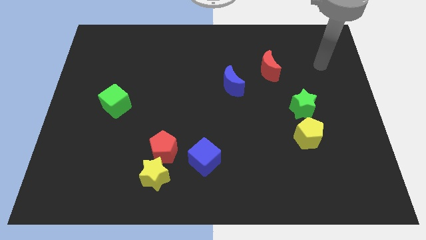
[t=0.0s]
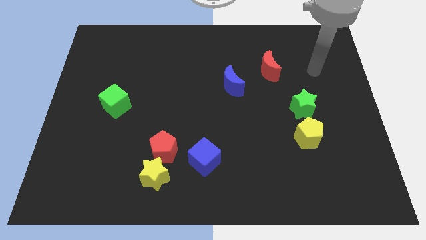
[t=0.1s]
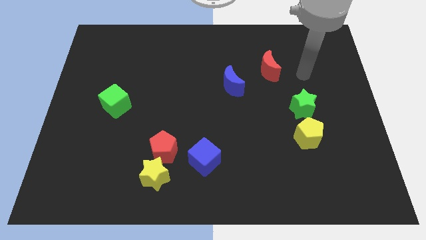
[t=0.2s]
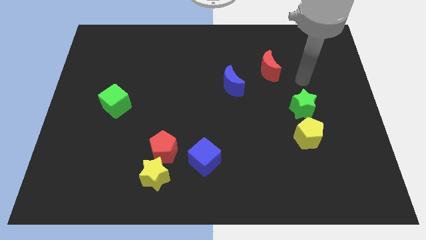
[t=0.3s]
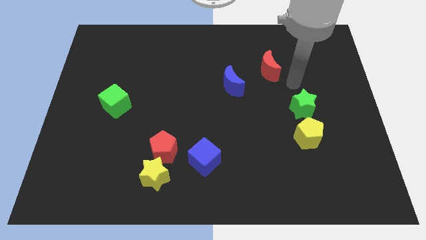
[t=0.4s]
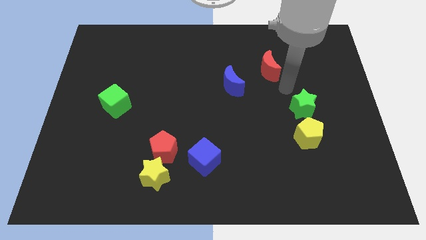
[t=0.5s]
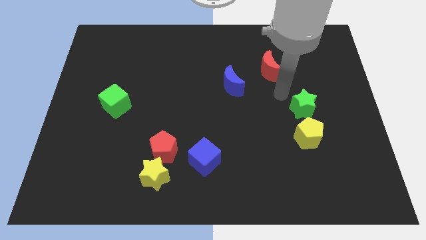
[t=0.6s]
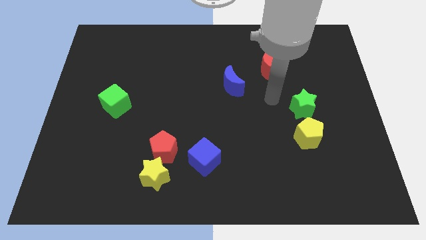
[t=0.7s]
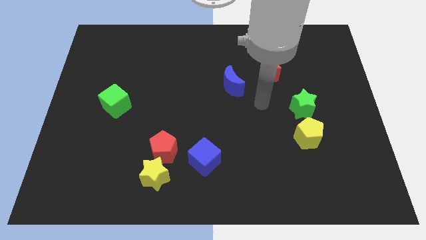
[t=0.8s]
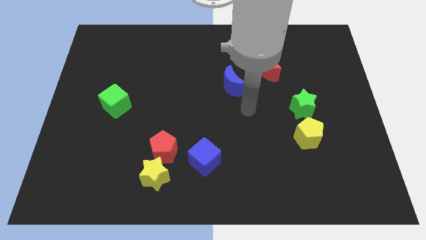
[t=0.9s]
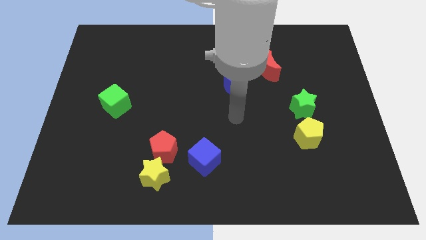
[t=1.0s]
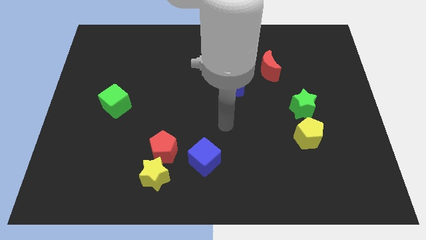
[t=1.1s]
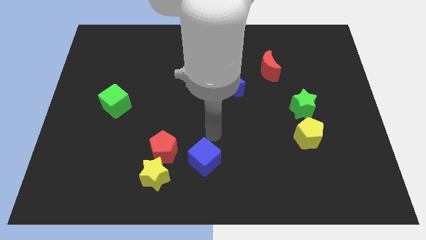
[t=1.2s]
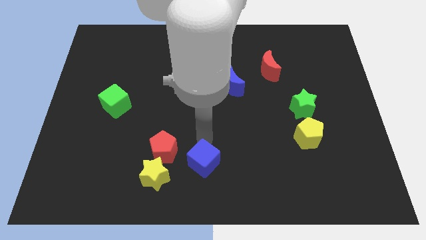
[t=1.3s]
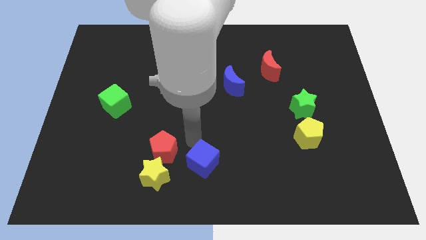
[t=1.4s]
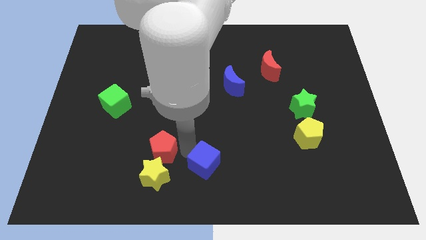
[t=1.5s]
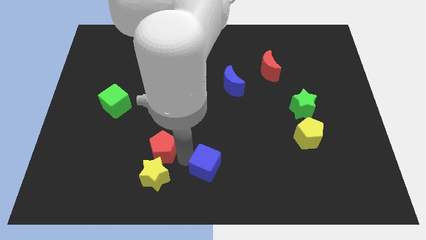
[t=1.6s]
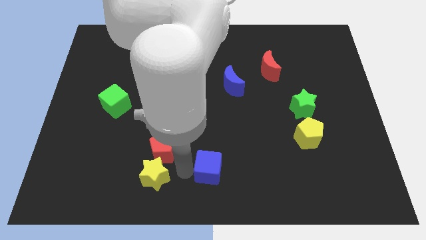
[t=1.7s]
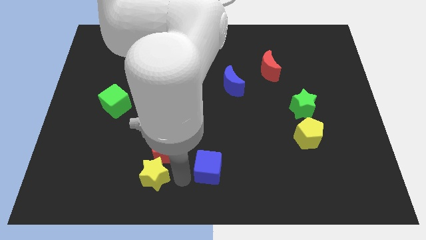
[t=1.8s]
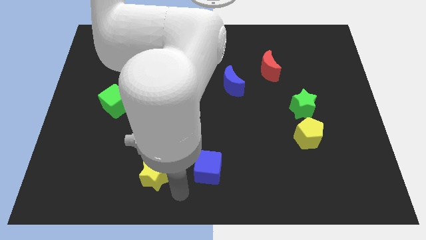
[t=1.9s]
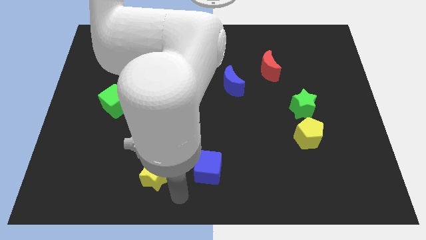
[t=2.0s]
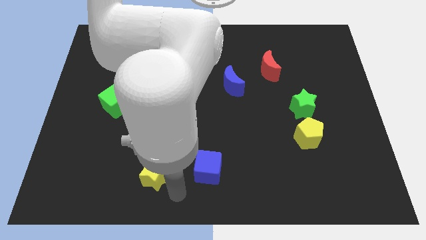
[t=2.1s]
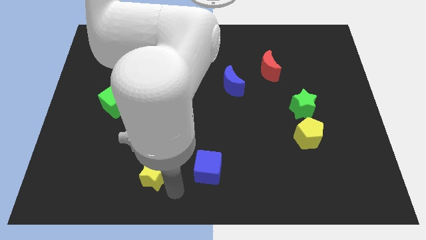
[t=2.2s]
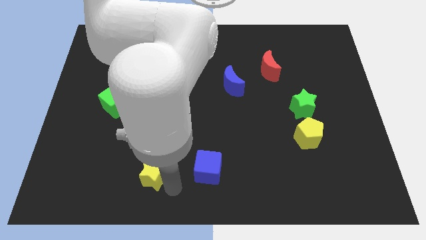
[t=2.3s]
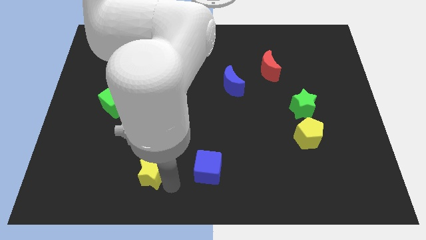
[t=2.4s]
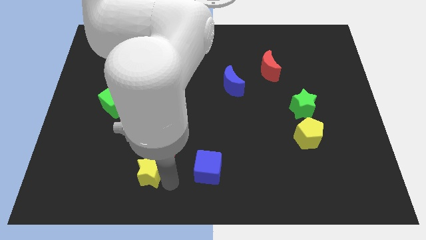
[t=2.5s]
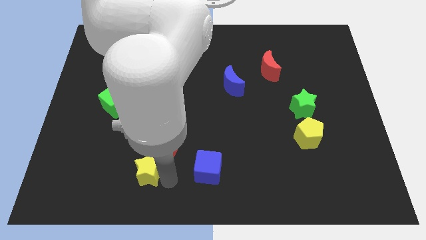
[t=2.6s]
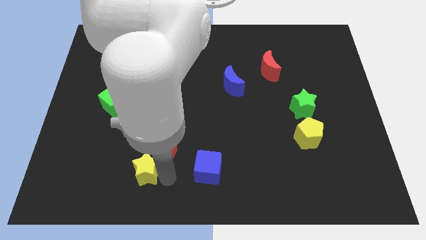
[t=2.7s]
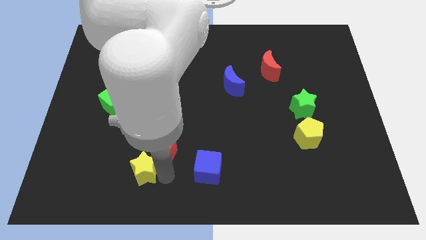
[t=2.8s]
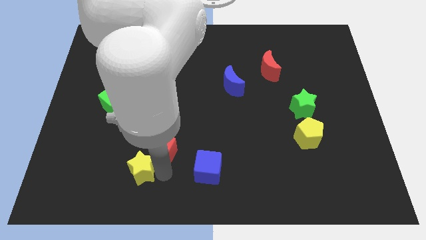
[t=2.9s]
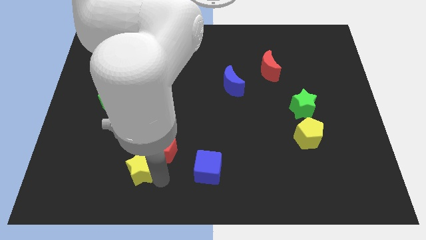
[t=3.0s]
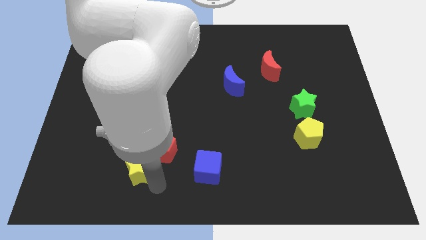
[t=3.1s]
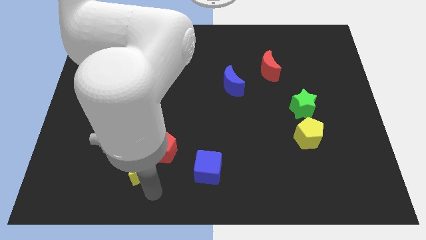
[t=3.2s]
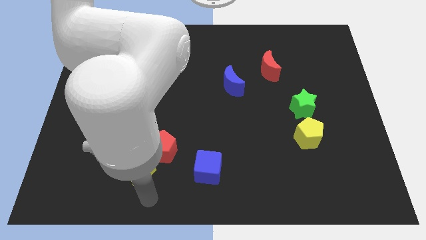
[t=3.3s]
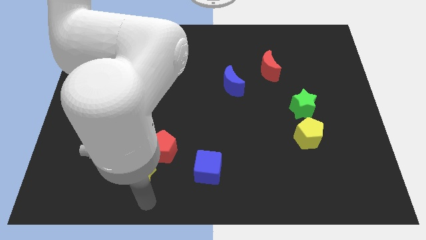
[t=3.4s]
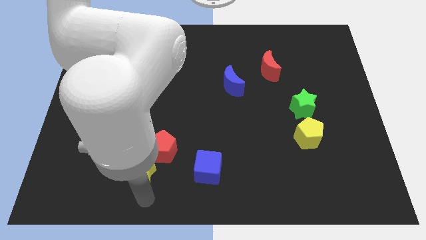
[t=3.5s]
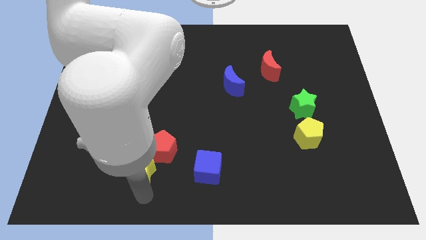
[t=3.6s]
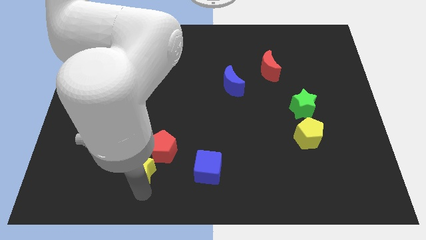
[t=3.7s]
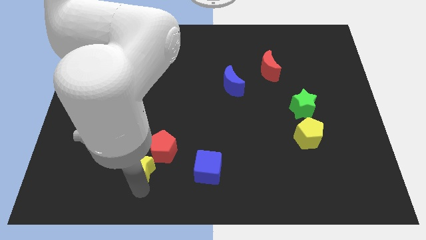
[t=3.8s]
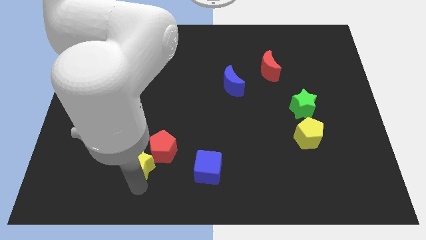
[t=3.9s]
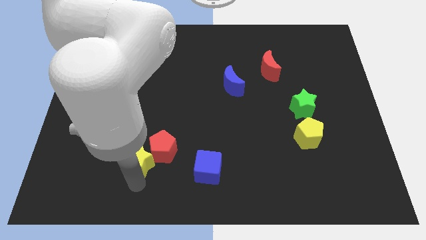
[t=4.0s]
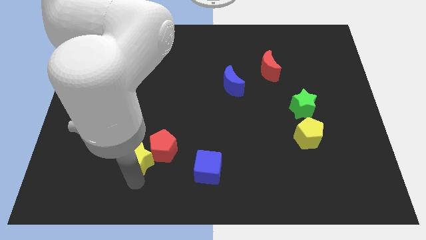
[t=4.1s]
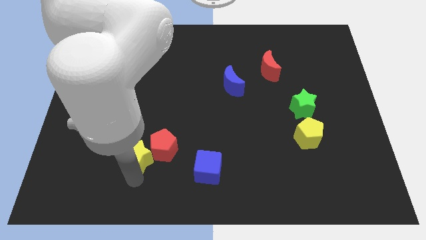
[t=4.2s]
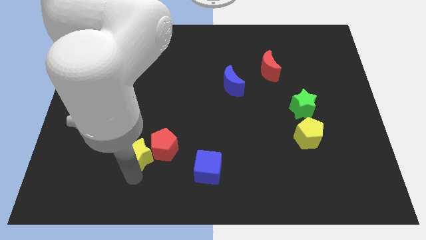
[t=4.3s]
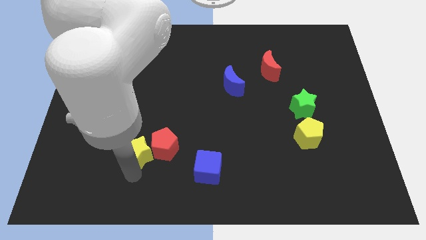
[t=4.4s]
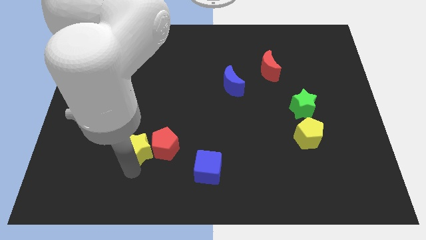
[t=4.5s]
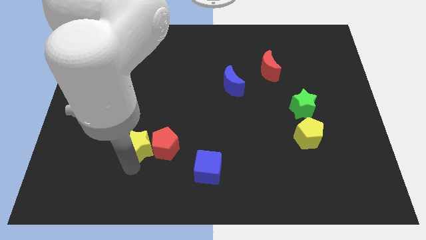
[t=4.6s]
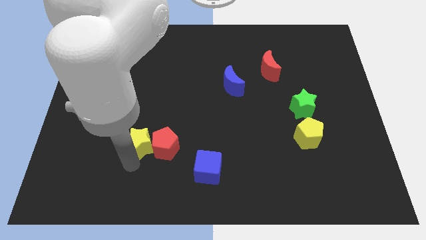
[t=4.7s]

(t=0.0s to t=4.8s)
move the yellow star a little bit up

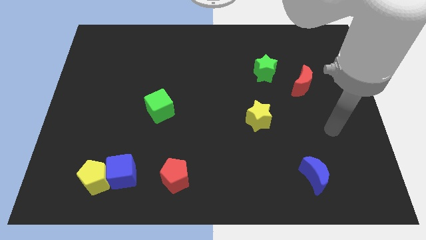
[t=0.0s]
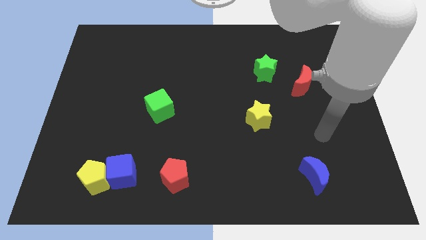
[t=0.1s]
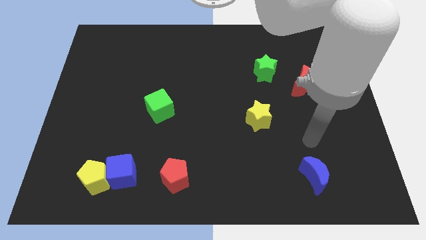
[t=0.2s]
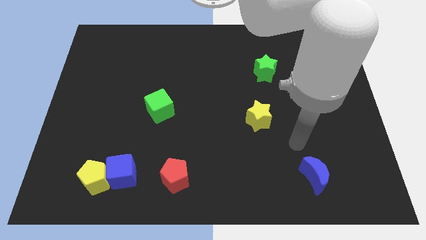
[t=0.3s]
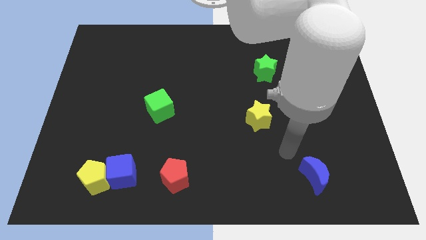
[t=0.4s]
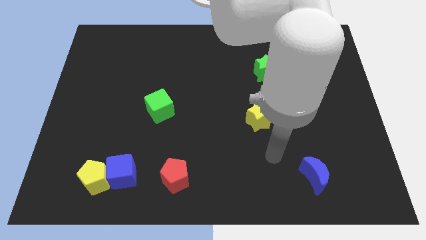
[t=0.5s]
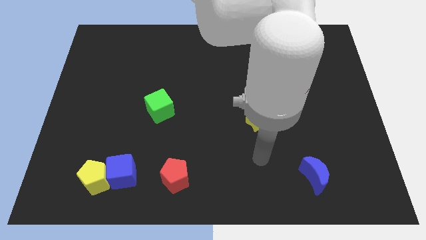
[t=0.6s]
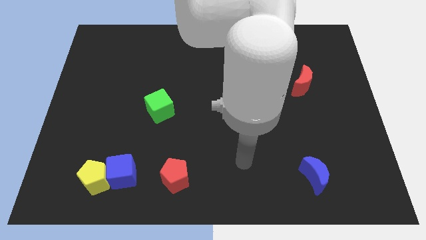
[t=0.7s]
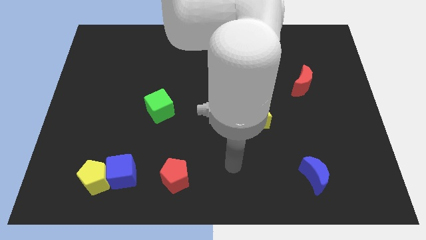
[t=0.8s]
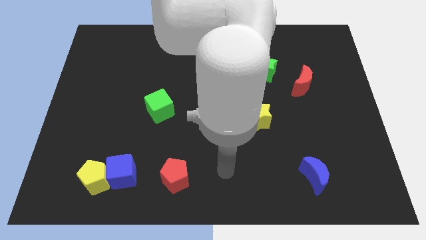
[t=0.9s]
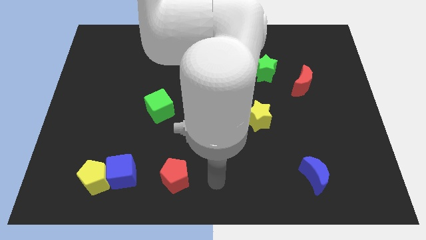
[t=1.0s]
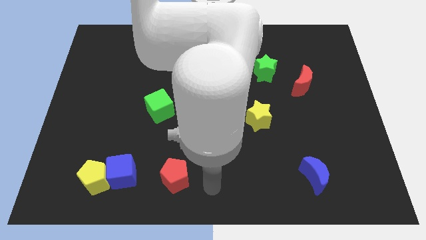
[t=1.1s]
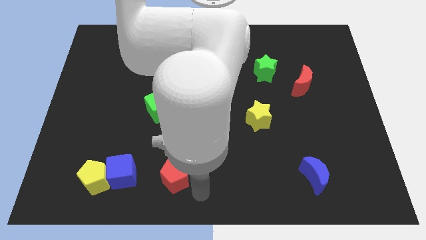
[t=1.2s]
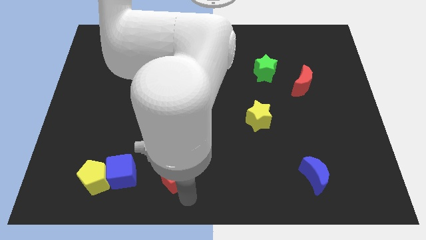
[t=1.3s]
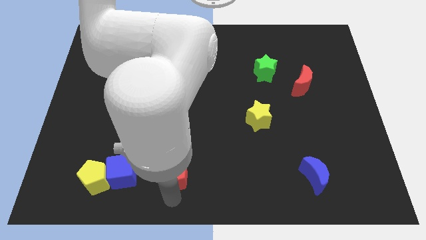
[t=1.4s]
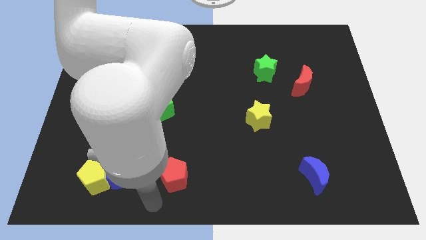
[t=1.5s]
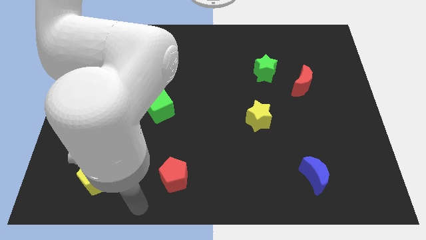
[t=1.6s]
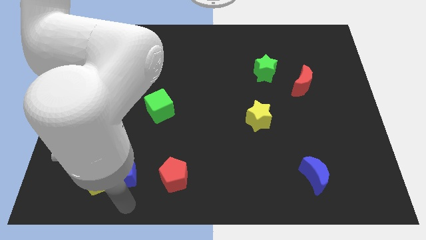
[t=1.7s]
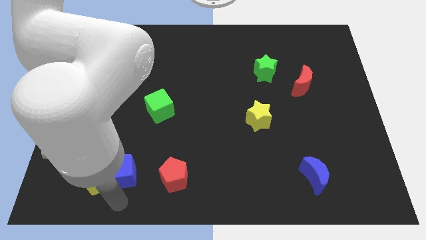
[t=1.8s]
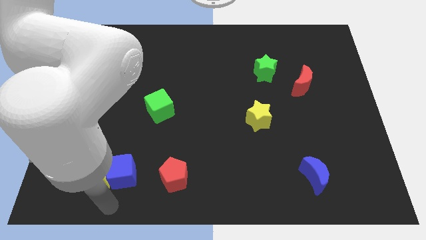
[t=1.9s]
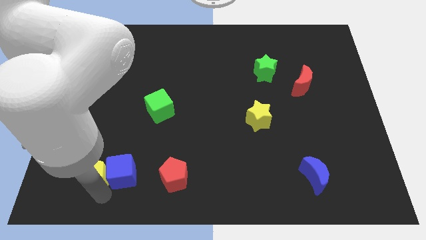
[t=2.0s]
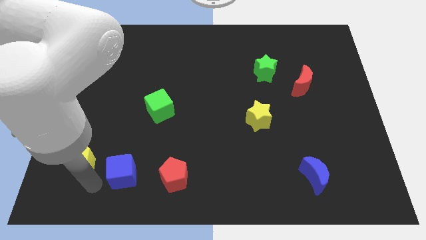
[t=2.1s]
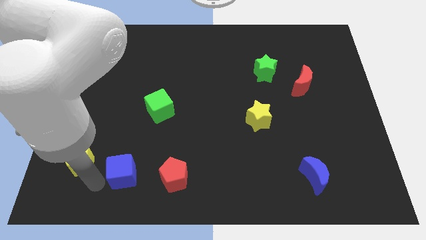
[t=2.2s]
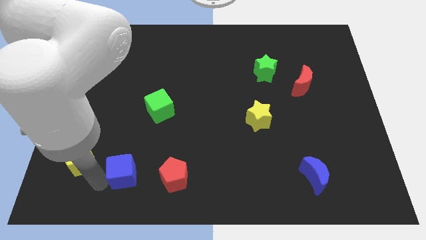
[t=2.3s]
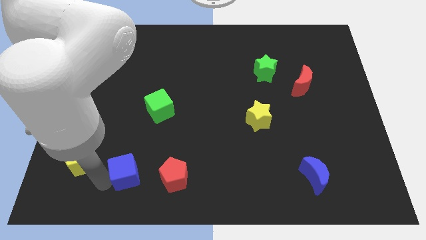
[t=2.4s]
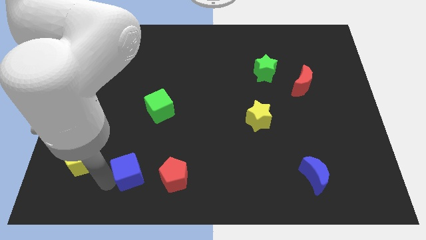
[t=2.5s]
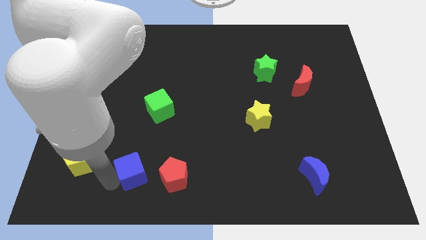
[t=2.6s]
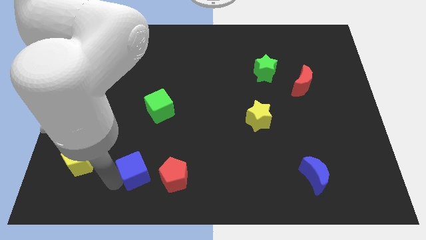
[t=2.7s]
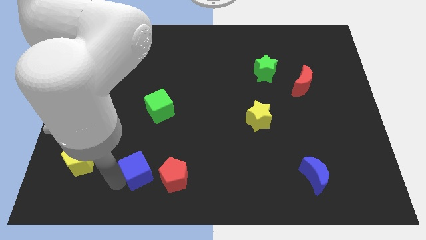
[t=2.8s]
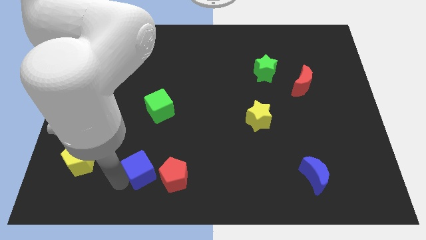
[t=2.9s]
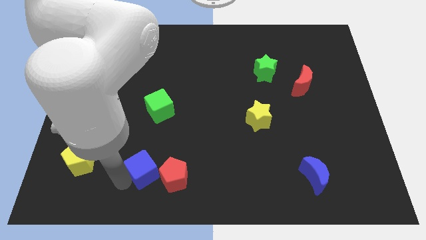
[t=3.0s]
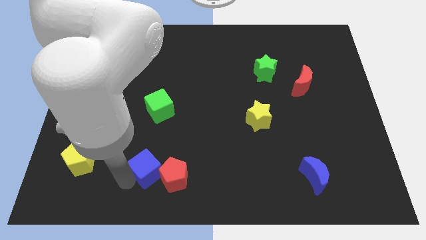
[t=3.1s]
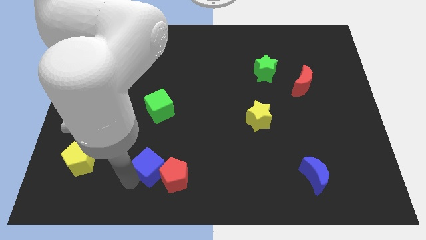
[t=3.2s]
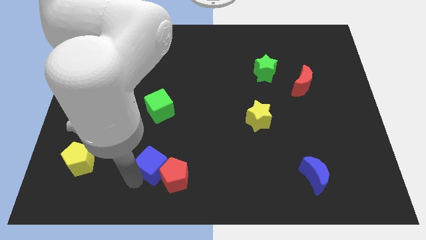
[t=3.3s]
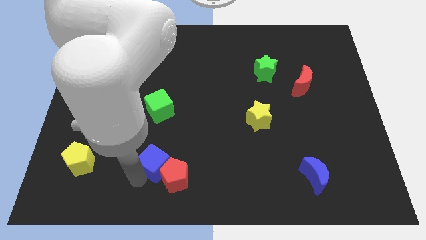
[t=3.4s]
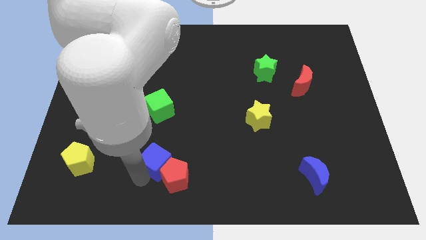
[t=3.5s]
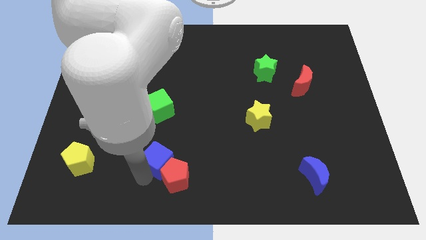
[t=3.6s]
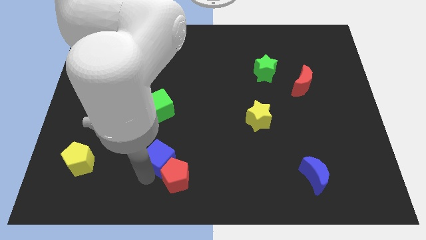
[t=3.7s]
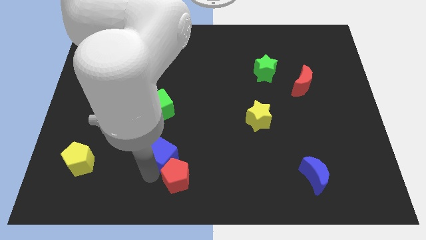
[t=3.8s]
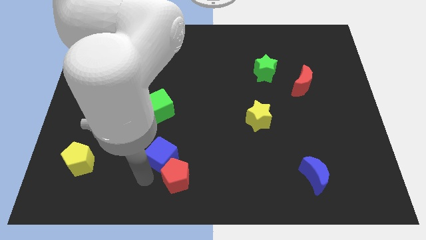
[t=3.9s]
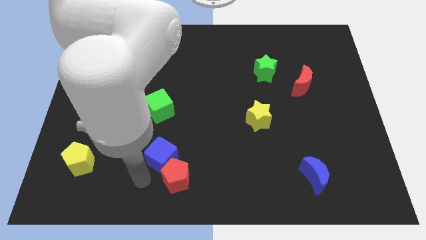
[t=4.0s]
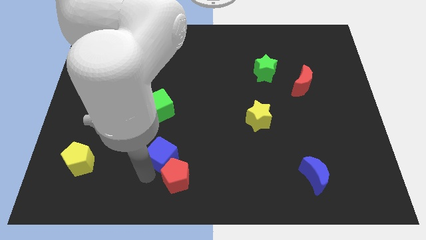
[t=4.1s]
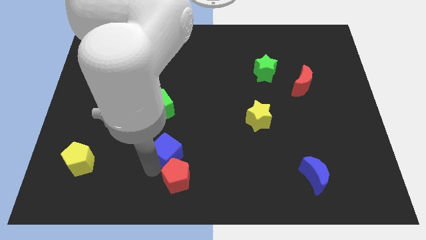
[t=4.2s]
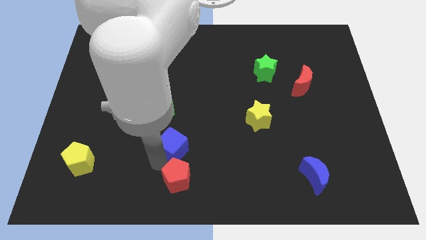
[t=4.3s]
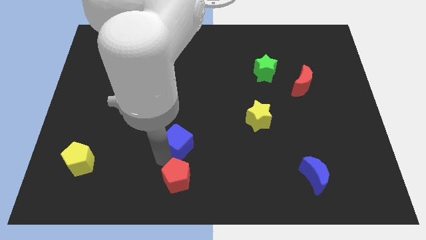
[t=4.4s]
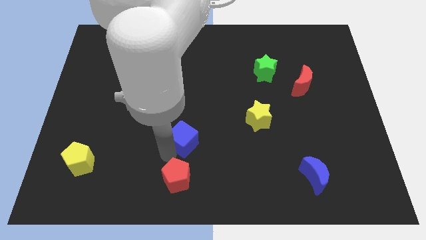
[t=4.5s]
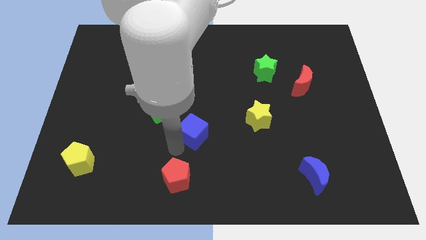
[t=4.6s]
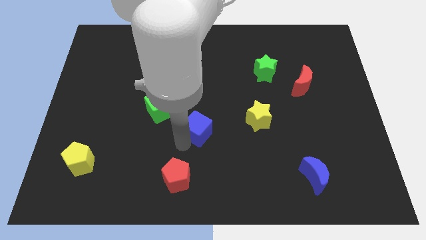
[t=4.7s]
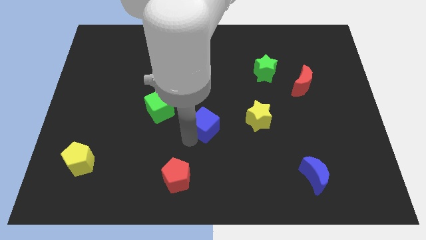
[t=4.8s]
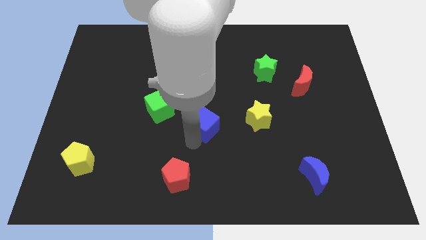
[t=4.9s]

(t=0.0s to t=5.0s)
push the blue cube up and right
